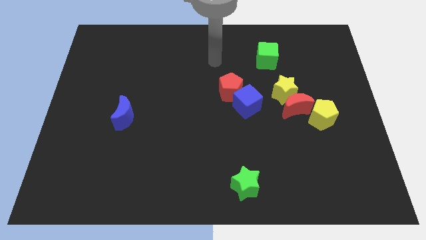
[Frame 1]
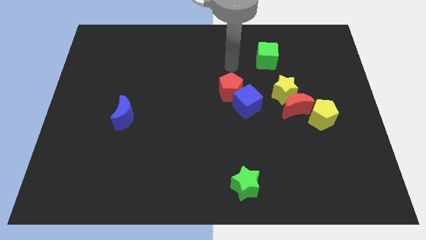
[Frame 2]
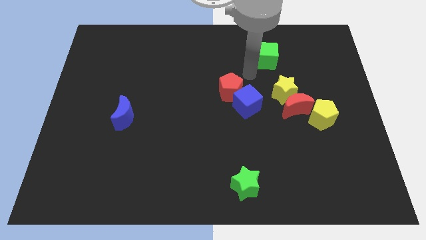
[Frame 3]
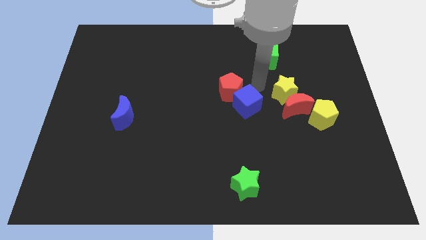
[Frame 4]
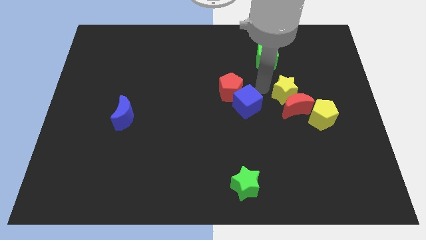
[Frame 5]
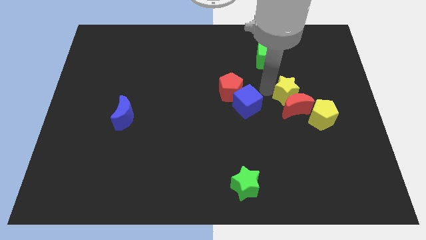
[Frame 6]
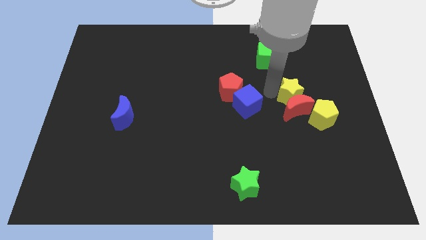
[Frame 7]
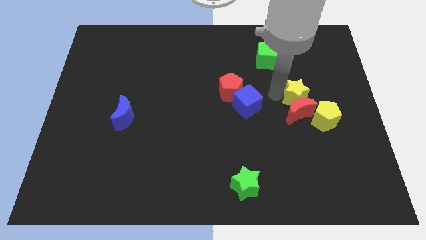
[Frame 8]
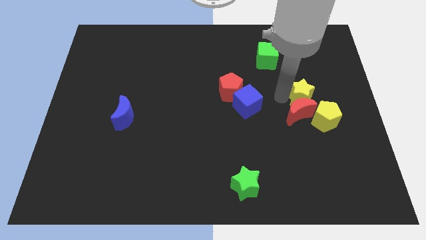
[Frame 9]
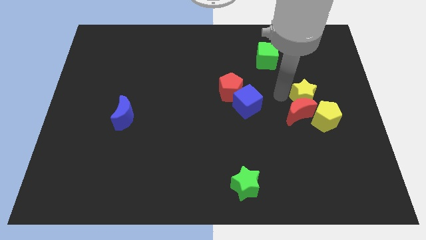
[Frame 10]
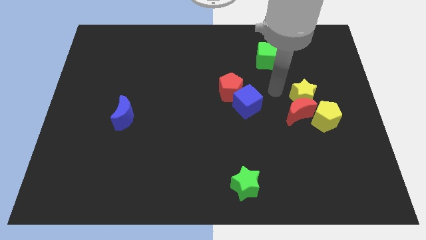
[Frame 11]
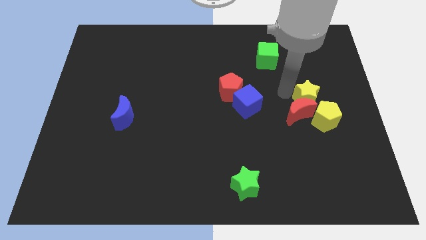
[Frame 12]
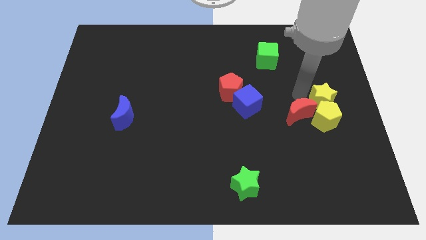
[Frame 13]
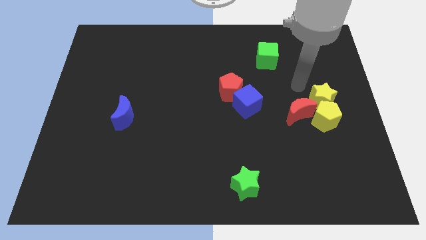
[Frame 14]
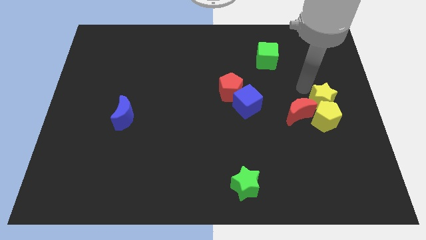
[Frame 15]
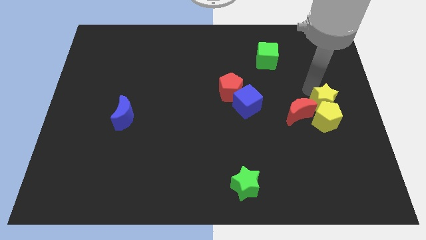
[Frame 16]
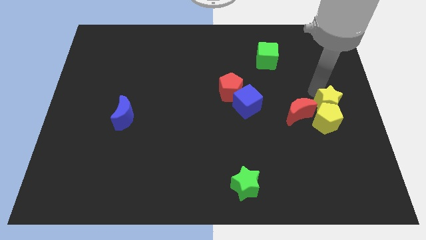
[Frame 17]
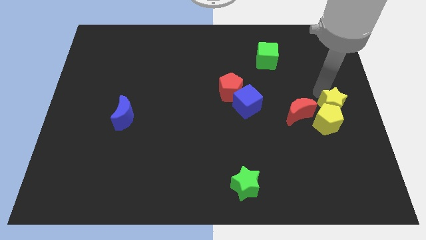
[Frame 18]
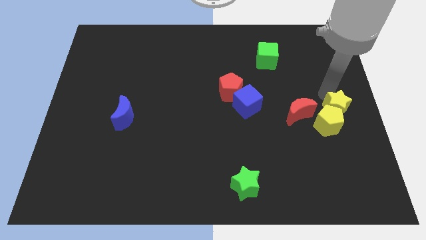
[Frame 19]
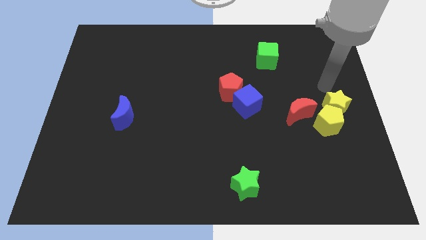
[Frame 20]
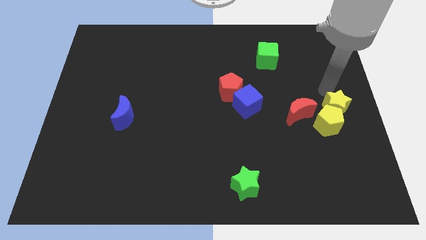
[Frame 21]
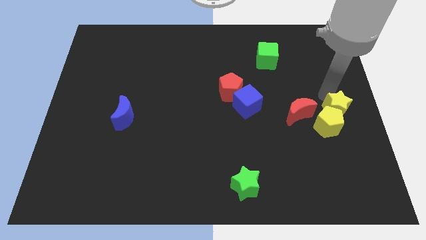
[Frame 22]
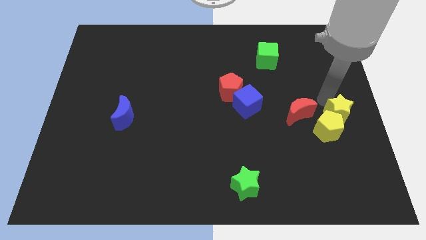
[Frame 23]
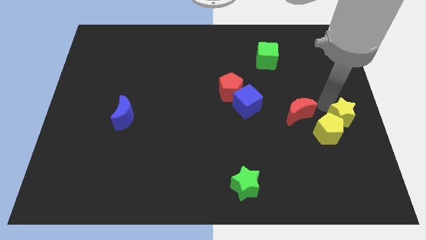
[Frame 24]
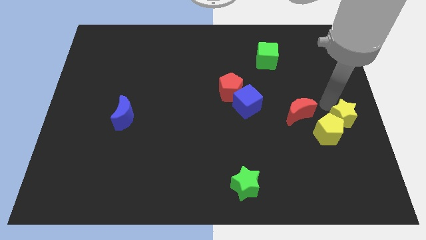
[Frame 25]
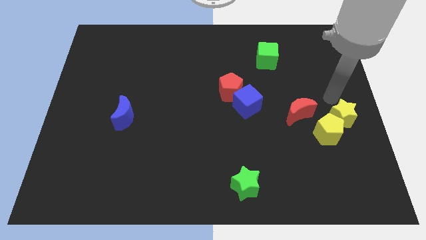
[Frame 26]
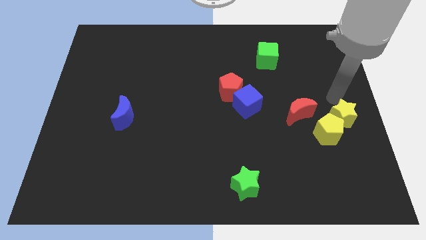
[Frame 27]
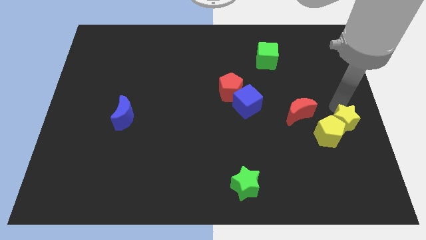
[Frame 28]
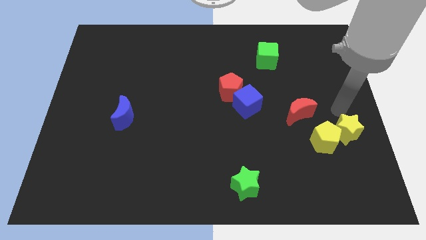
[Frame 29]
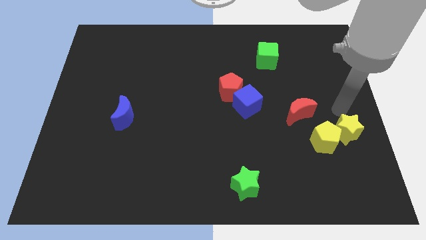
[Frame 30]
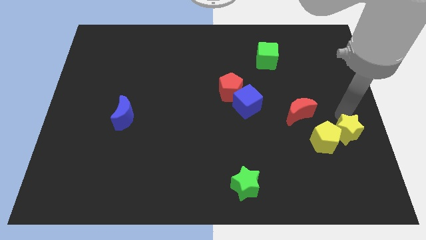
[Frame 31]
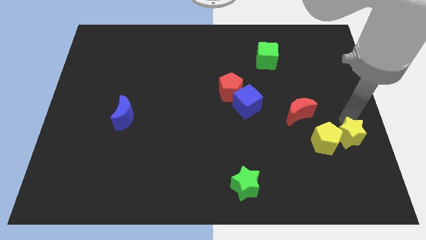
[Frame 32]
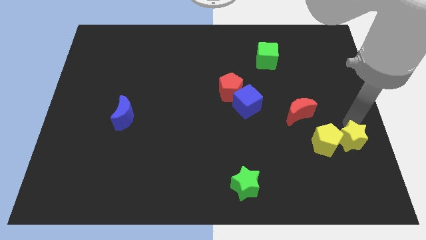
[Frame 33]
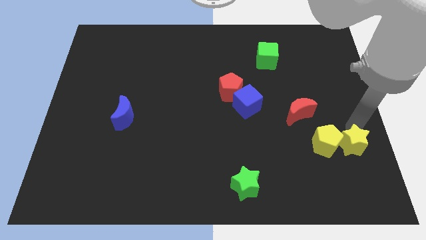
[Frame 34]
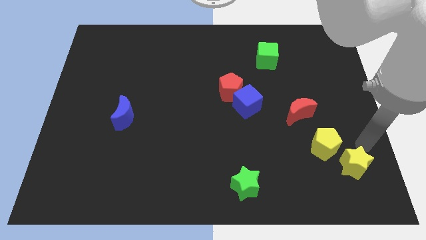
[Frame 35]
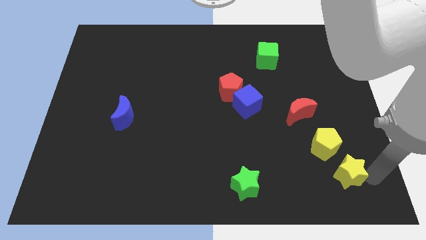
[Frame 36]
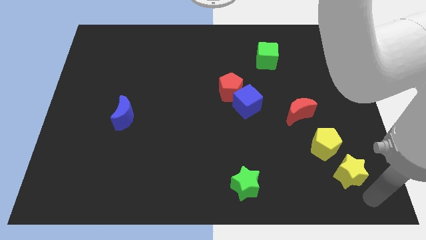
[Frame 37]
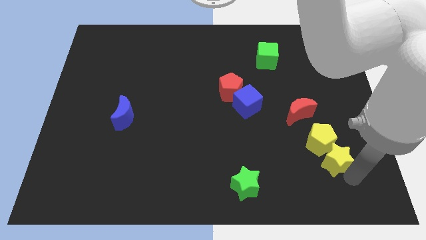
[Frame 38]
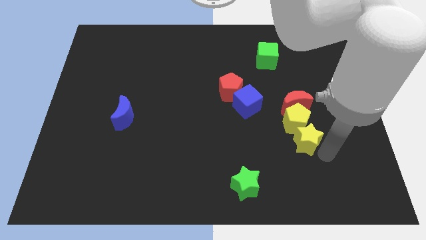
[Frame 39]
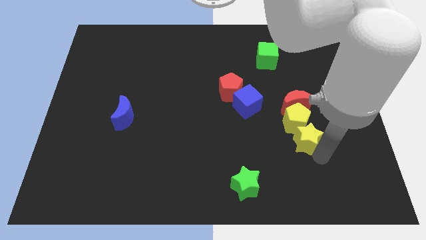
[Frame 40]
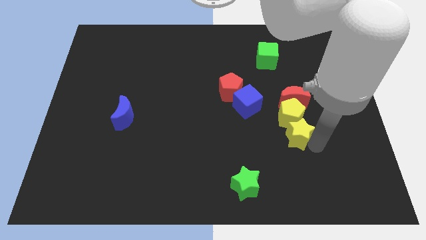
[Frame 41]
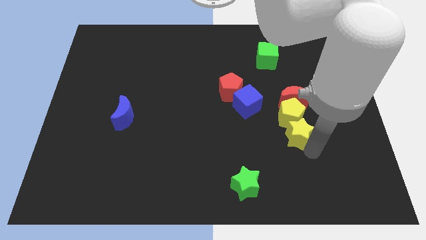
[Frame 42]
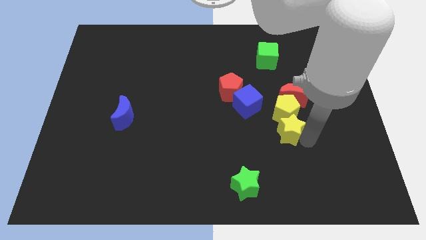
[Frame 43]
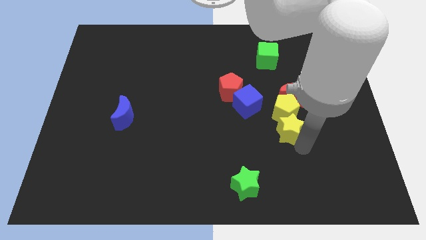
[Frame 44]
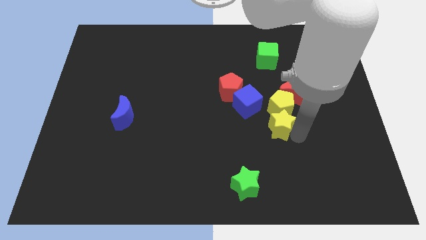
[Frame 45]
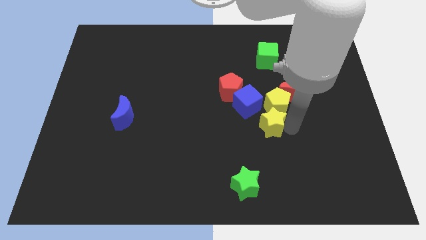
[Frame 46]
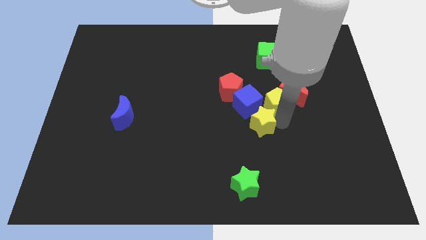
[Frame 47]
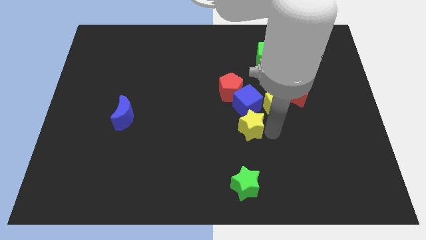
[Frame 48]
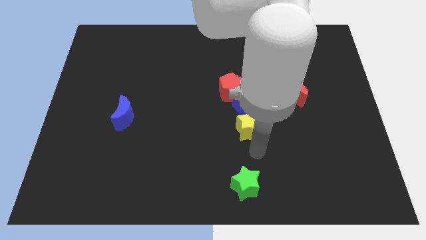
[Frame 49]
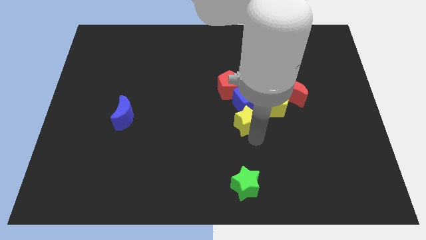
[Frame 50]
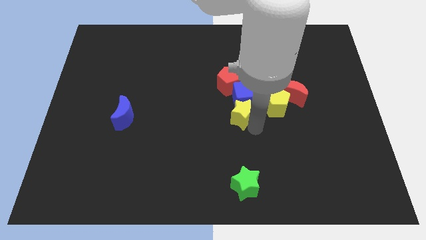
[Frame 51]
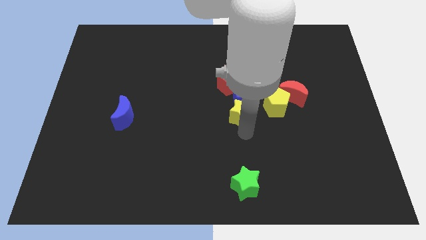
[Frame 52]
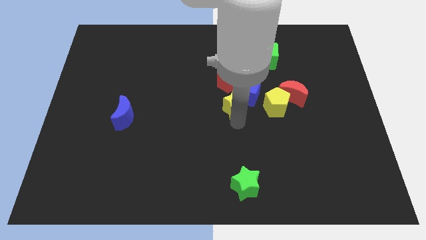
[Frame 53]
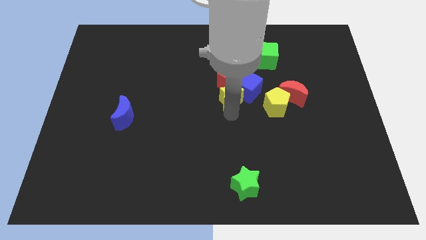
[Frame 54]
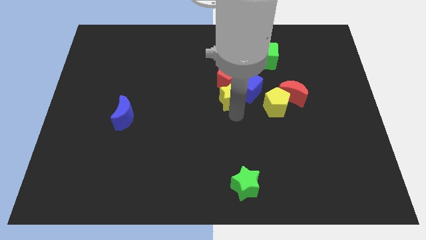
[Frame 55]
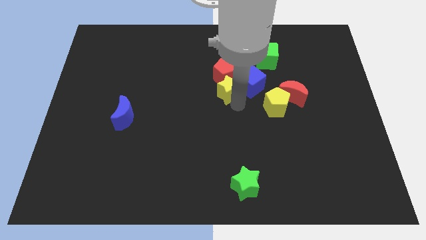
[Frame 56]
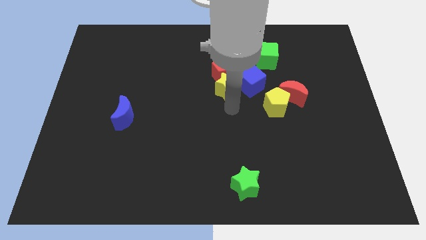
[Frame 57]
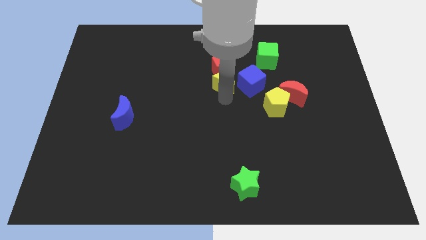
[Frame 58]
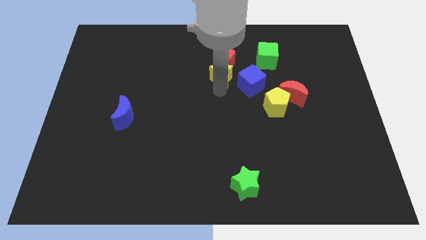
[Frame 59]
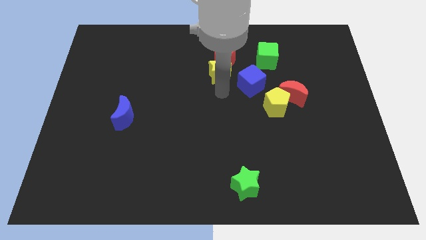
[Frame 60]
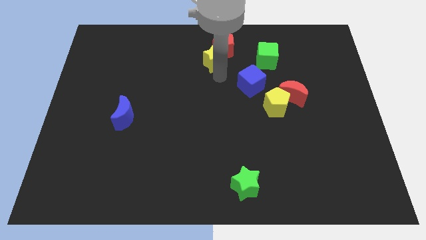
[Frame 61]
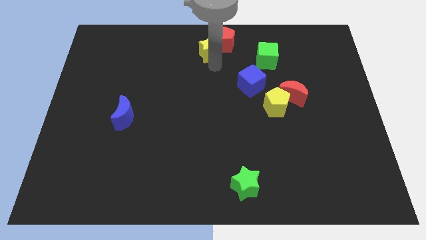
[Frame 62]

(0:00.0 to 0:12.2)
put the yellow star to the top

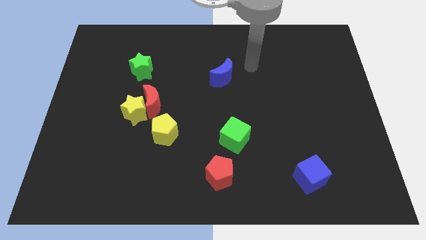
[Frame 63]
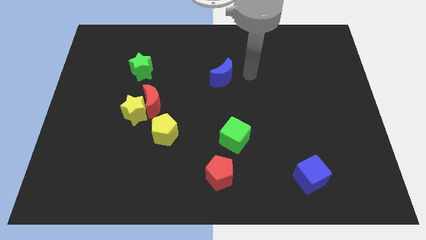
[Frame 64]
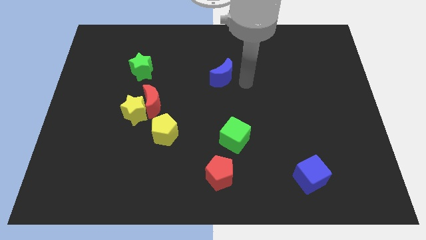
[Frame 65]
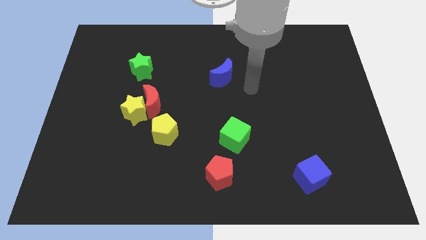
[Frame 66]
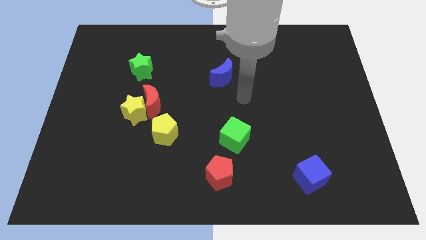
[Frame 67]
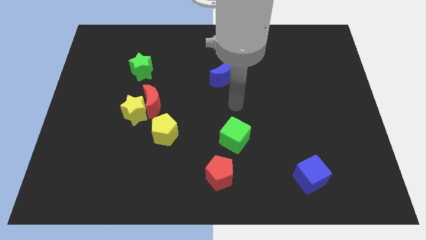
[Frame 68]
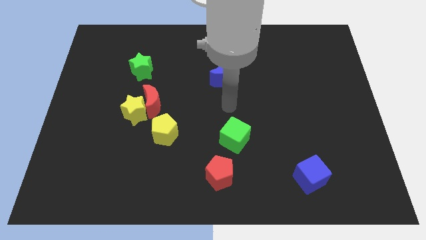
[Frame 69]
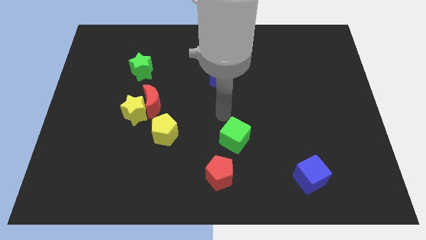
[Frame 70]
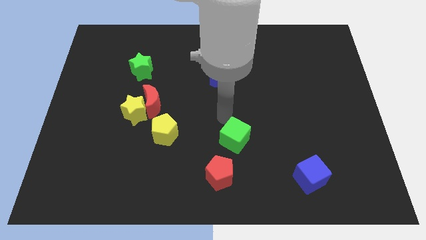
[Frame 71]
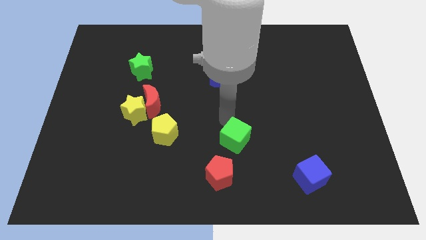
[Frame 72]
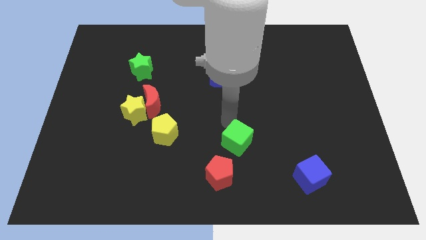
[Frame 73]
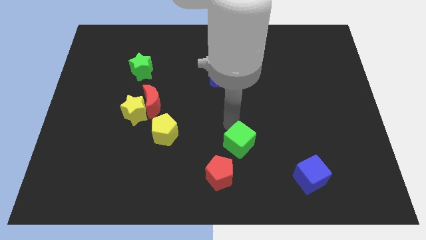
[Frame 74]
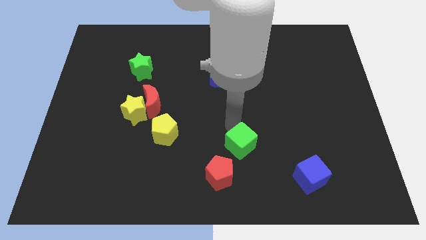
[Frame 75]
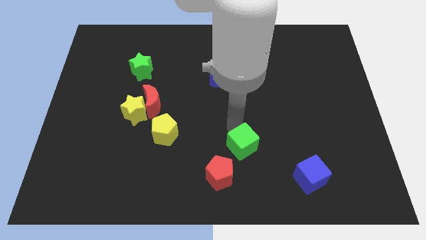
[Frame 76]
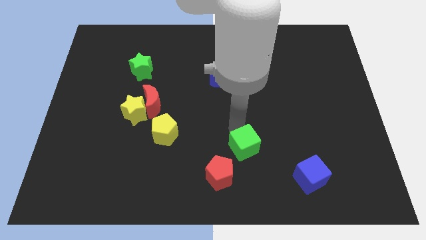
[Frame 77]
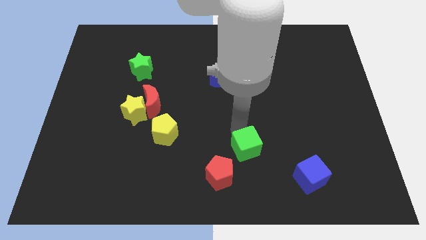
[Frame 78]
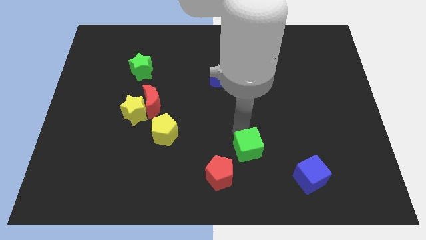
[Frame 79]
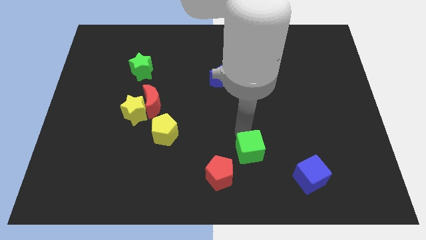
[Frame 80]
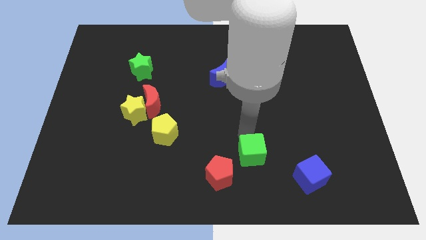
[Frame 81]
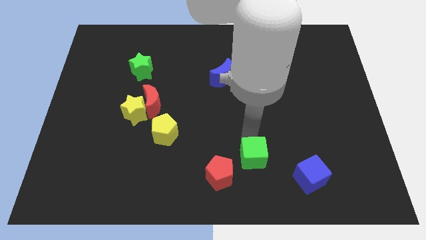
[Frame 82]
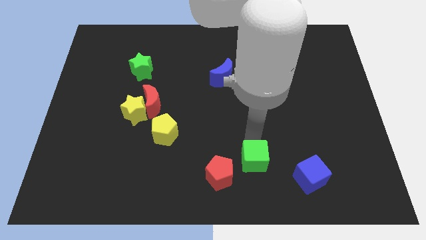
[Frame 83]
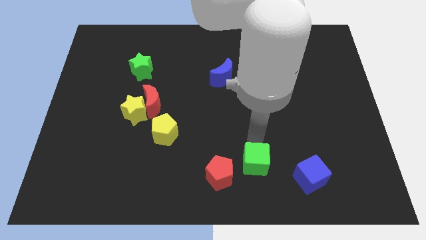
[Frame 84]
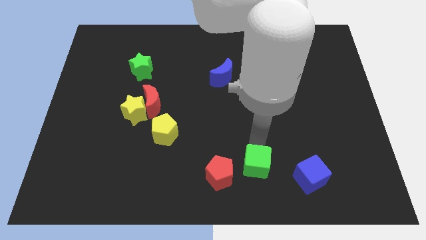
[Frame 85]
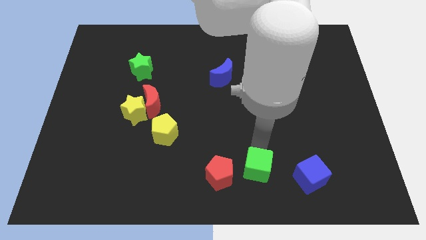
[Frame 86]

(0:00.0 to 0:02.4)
slide the green cube to the bottom
